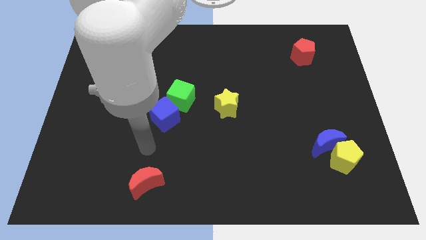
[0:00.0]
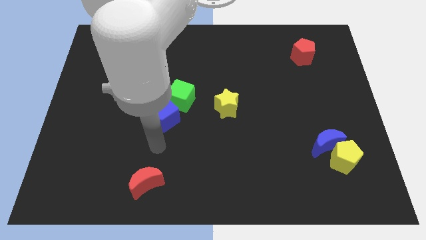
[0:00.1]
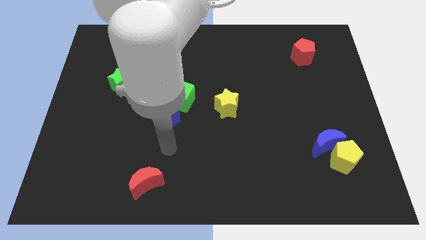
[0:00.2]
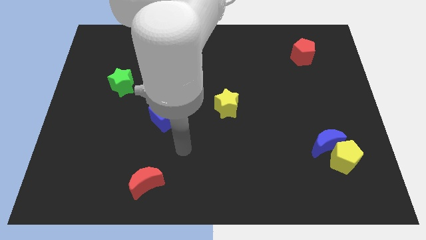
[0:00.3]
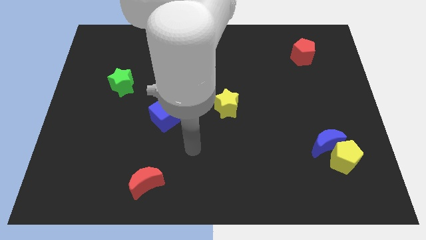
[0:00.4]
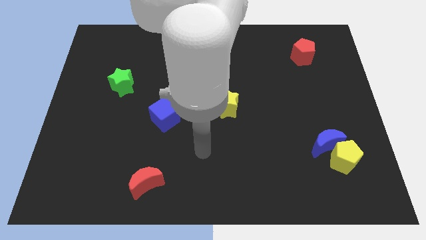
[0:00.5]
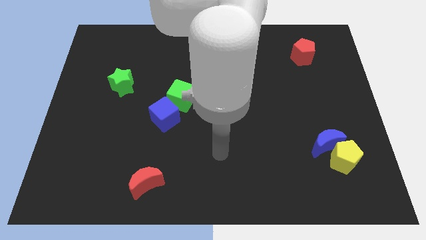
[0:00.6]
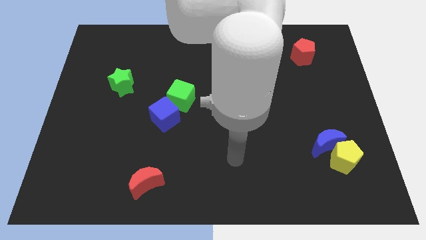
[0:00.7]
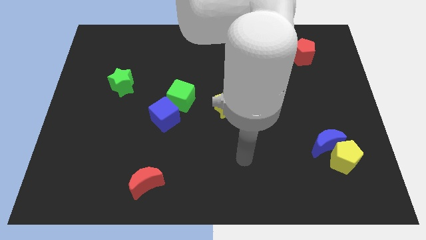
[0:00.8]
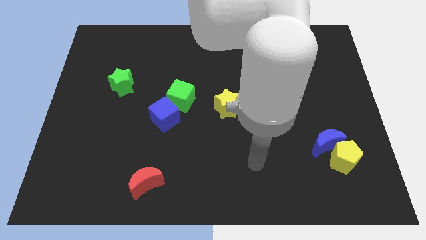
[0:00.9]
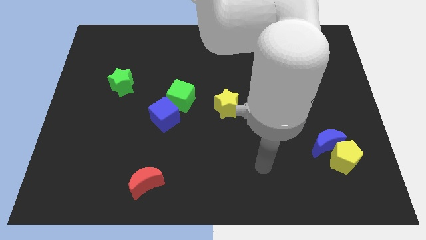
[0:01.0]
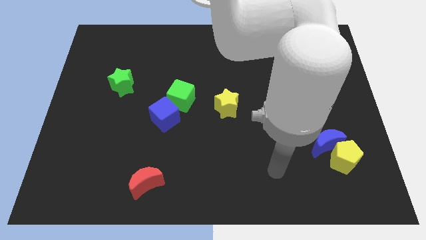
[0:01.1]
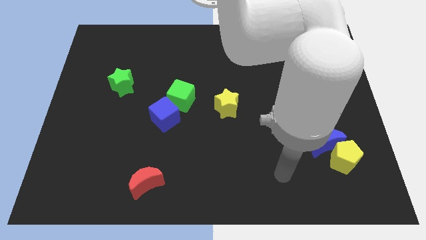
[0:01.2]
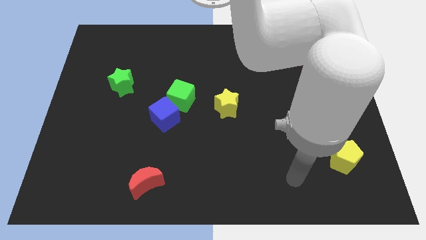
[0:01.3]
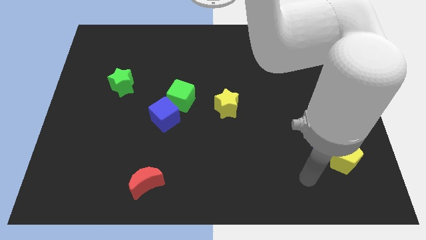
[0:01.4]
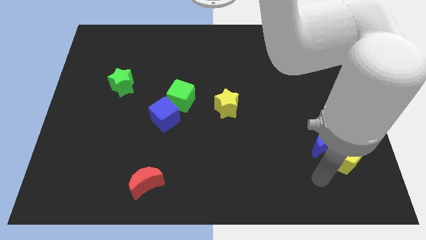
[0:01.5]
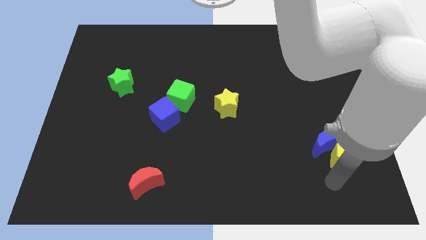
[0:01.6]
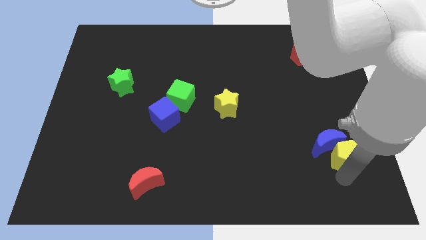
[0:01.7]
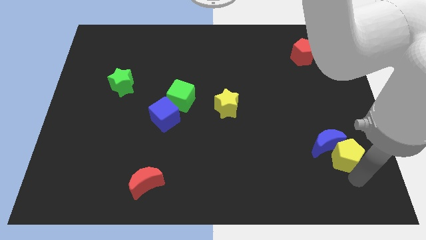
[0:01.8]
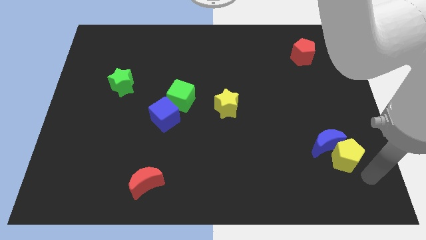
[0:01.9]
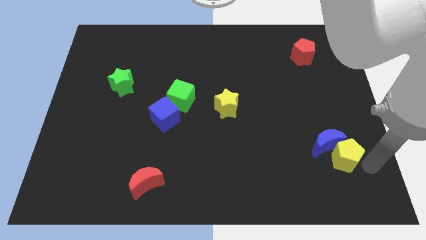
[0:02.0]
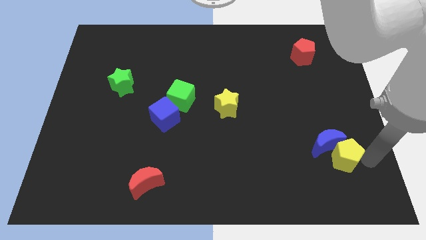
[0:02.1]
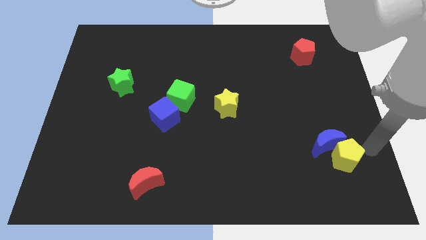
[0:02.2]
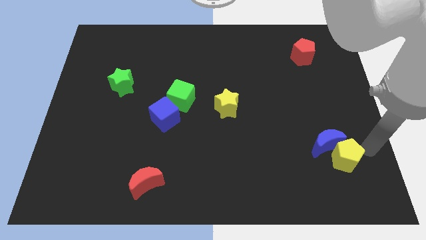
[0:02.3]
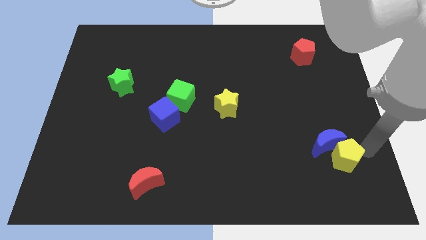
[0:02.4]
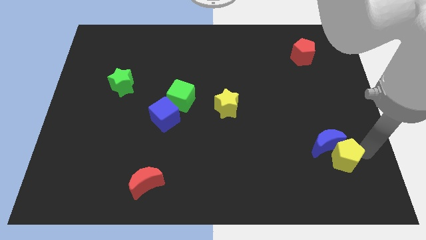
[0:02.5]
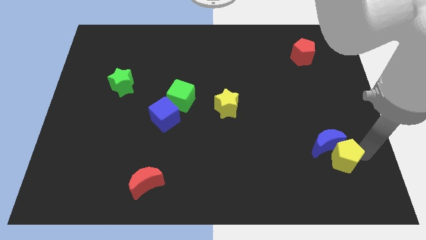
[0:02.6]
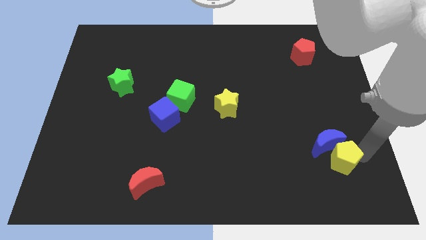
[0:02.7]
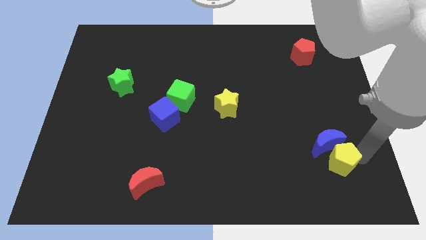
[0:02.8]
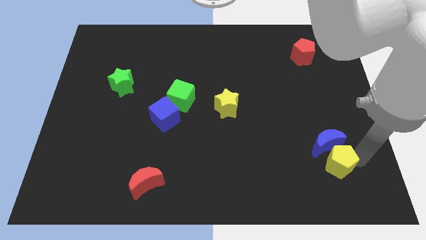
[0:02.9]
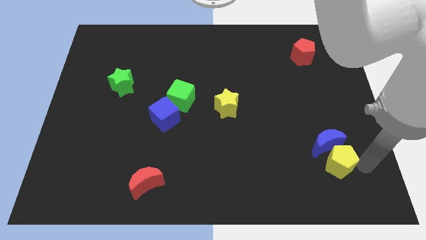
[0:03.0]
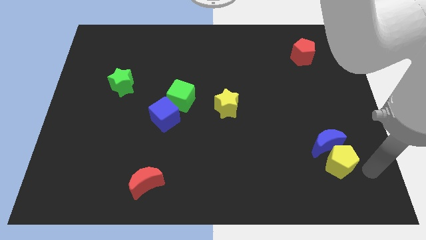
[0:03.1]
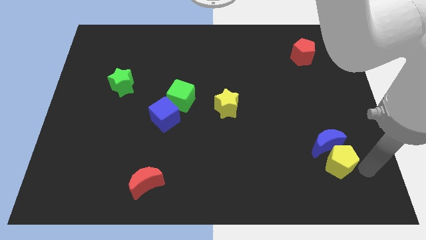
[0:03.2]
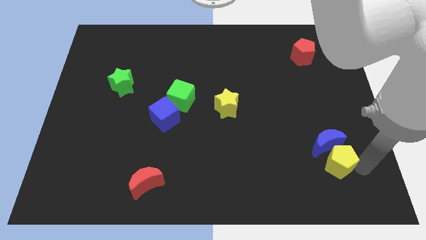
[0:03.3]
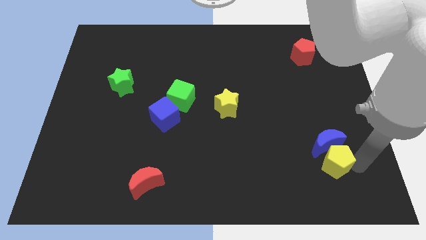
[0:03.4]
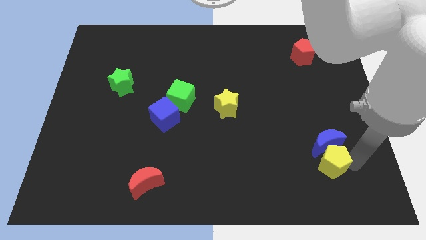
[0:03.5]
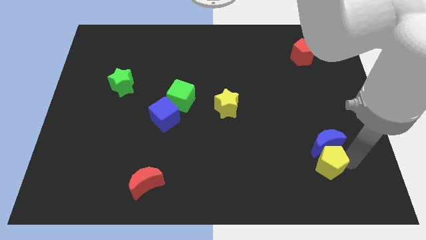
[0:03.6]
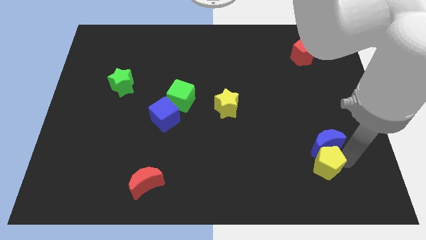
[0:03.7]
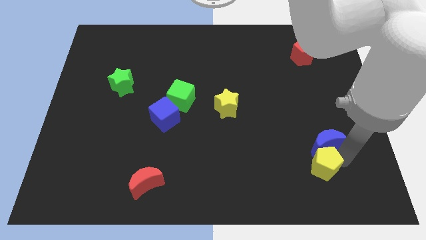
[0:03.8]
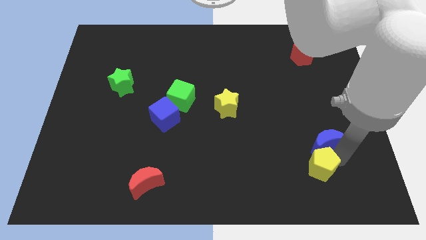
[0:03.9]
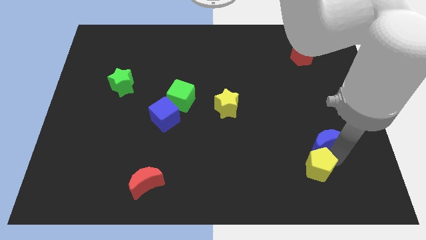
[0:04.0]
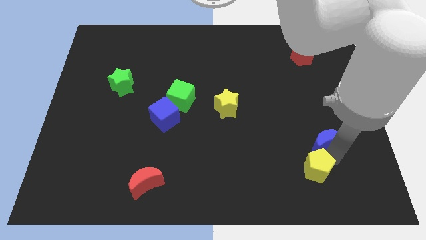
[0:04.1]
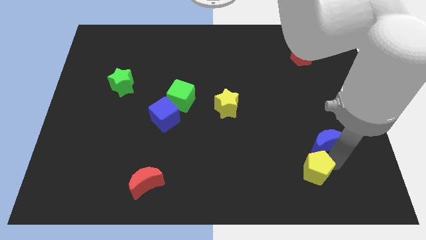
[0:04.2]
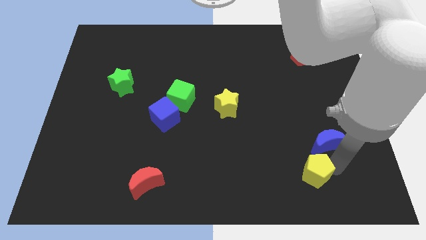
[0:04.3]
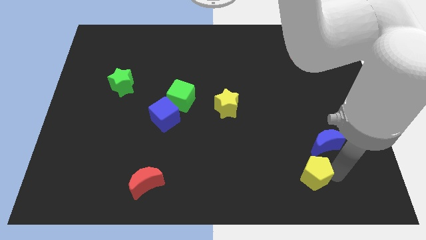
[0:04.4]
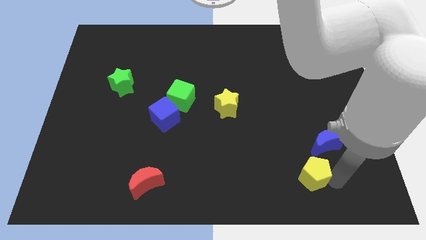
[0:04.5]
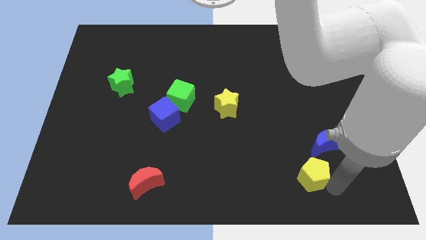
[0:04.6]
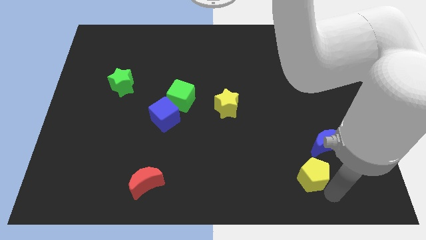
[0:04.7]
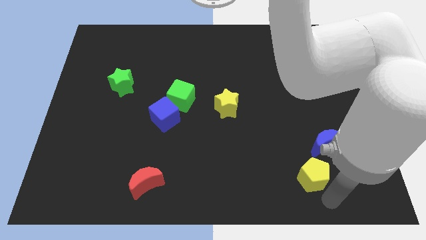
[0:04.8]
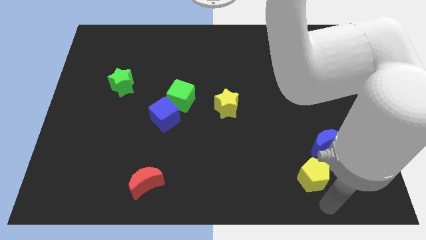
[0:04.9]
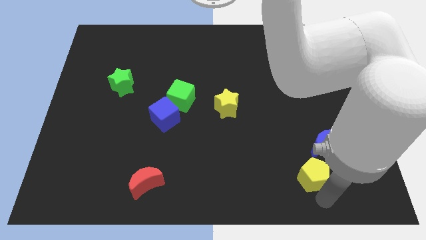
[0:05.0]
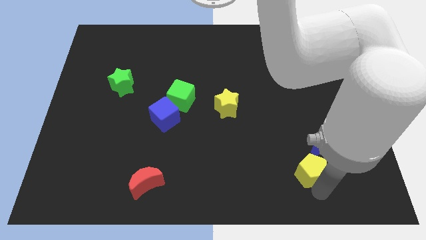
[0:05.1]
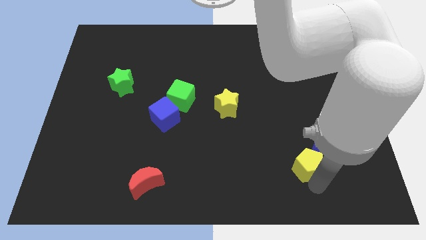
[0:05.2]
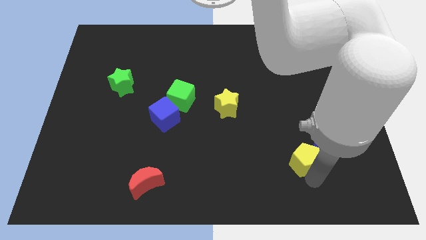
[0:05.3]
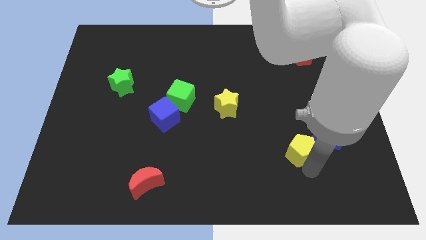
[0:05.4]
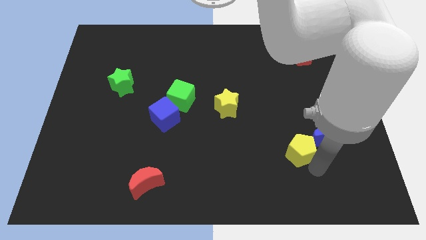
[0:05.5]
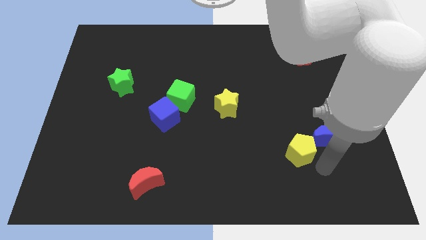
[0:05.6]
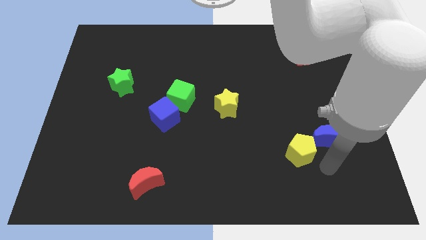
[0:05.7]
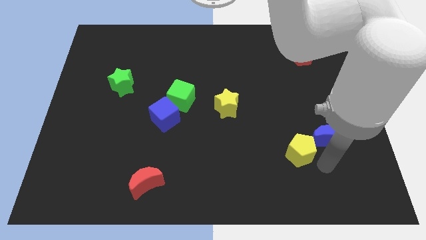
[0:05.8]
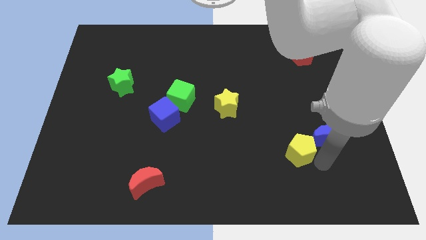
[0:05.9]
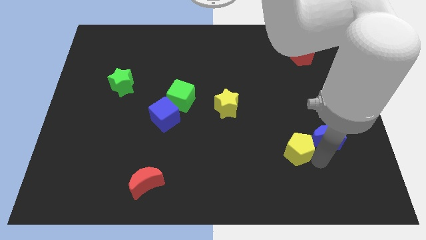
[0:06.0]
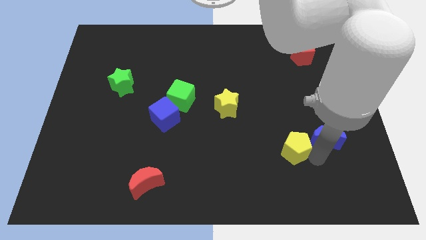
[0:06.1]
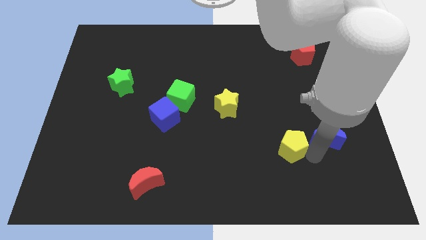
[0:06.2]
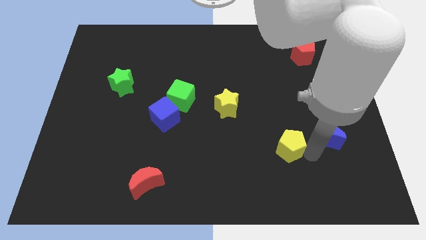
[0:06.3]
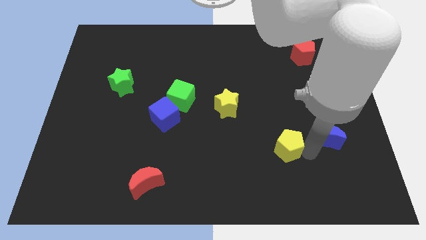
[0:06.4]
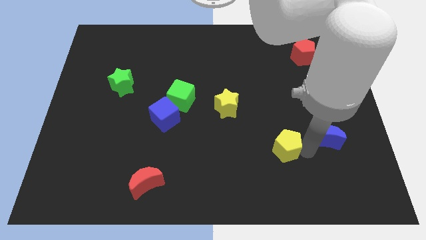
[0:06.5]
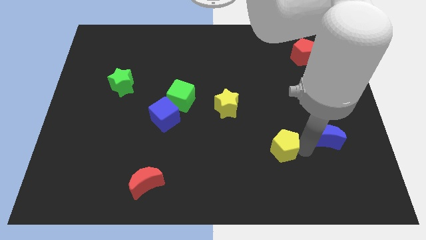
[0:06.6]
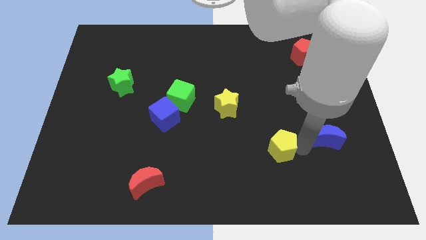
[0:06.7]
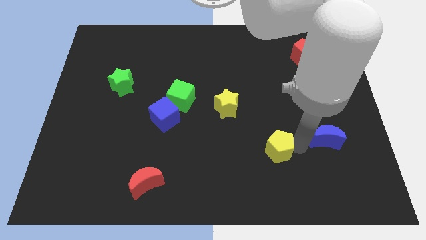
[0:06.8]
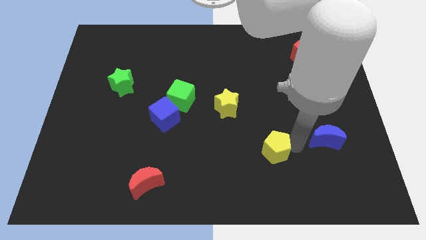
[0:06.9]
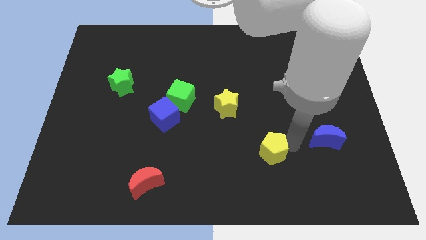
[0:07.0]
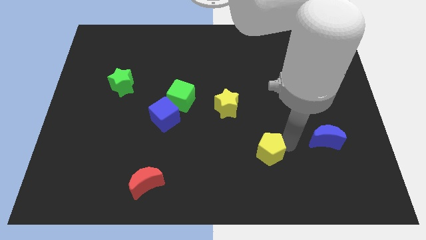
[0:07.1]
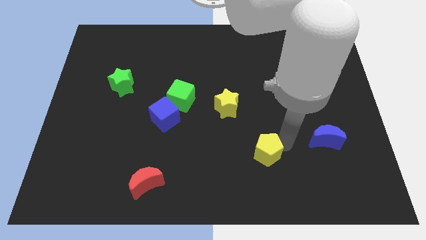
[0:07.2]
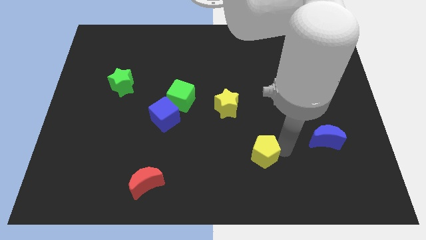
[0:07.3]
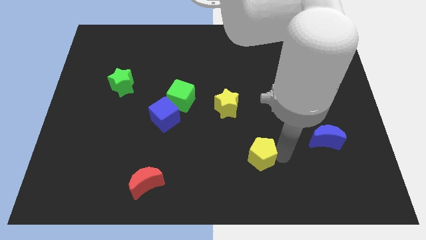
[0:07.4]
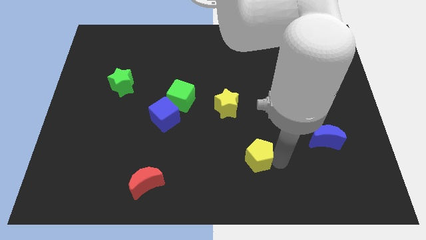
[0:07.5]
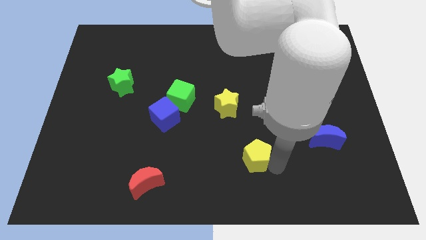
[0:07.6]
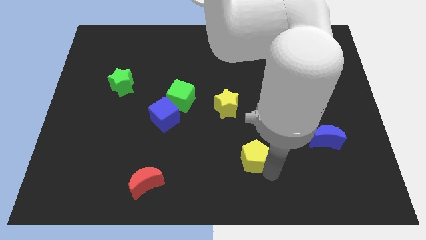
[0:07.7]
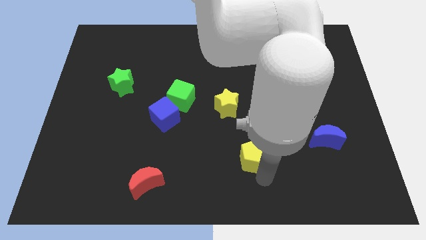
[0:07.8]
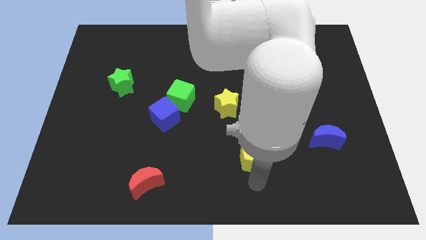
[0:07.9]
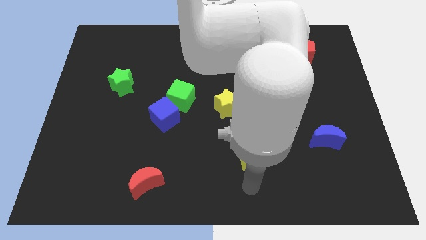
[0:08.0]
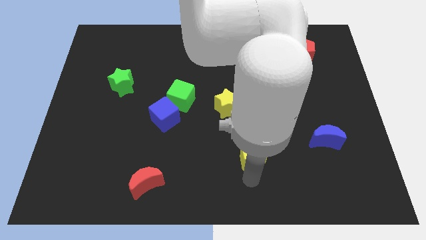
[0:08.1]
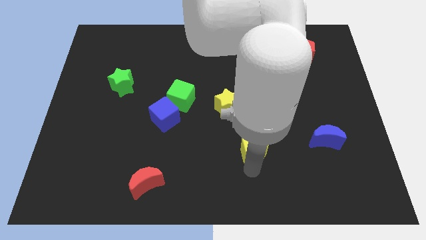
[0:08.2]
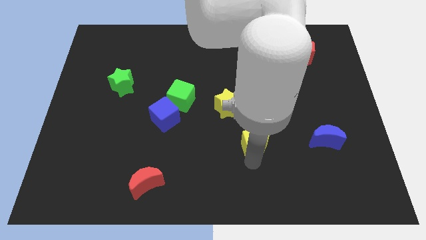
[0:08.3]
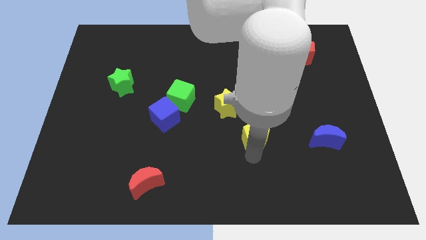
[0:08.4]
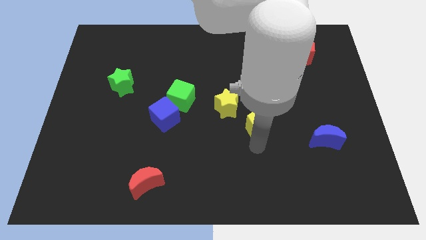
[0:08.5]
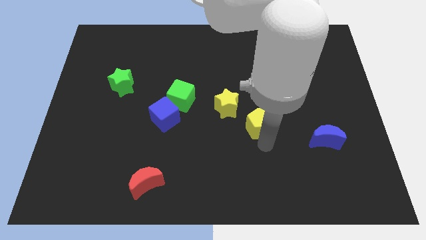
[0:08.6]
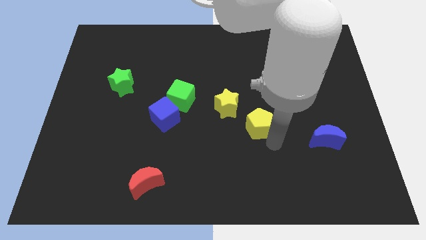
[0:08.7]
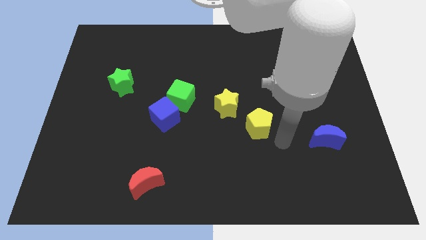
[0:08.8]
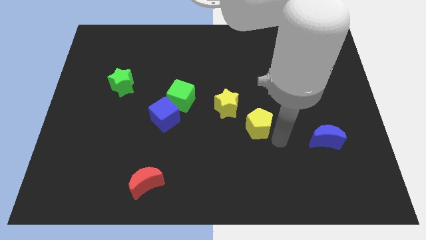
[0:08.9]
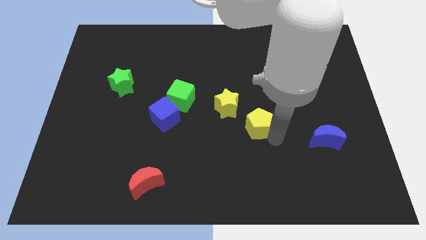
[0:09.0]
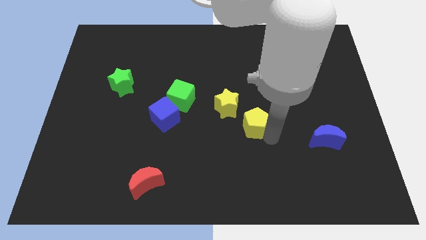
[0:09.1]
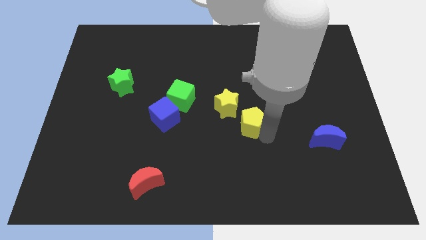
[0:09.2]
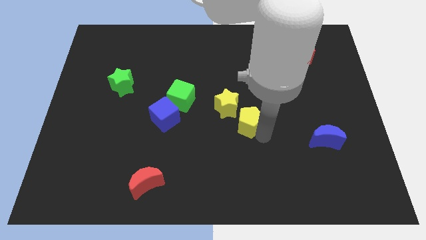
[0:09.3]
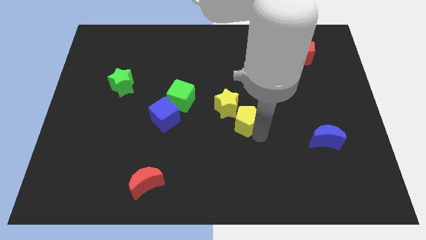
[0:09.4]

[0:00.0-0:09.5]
push the yellow pentagon close to the yellow star
